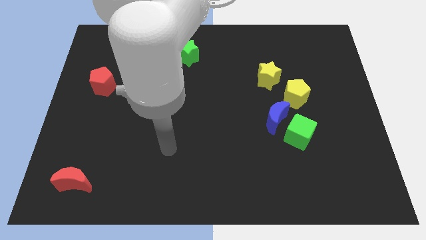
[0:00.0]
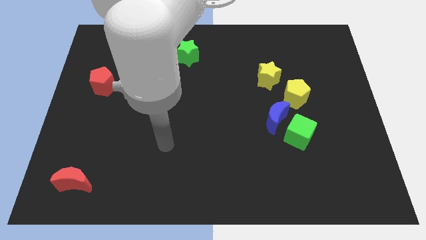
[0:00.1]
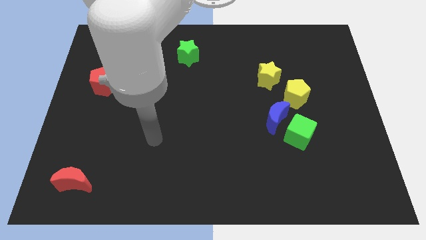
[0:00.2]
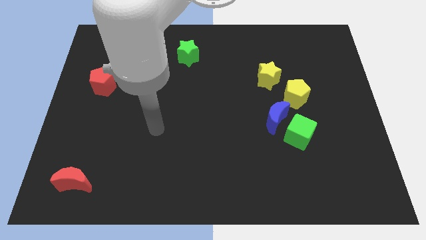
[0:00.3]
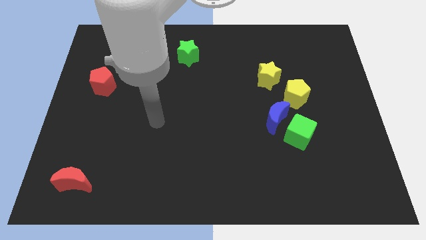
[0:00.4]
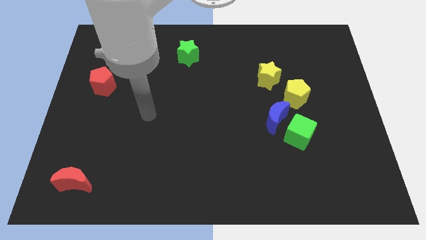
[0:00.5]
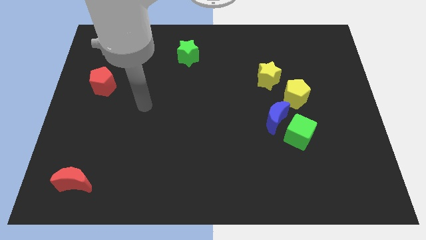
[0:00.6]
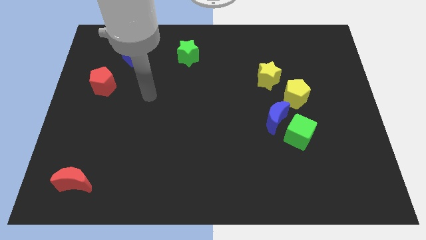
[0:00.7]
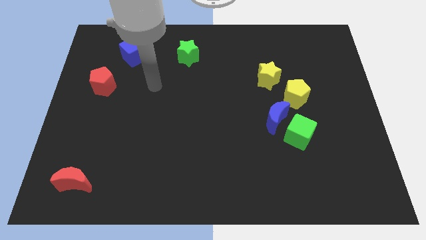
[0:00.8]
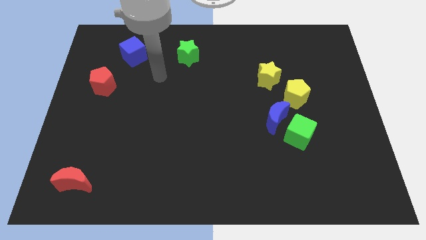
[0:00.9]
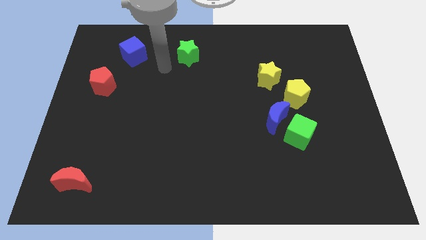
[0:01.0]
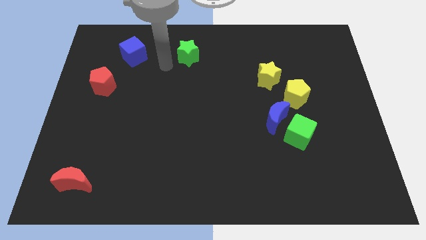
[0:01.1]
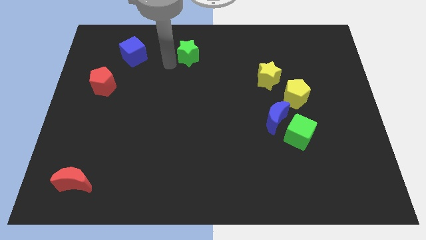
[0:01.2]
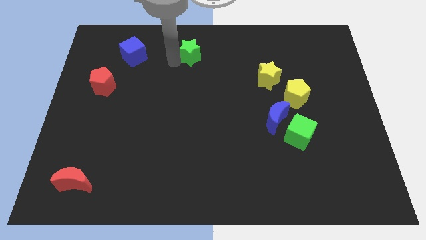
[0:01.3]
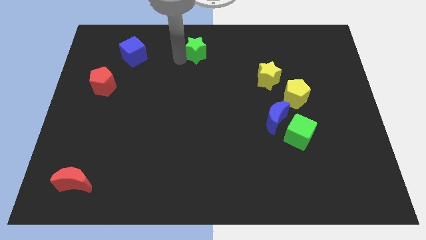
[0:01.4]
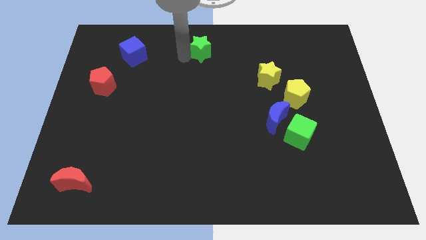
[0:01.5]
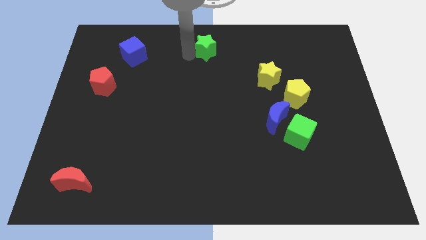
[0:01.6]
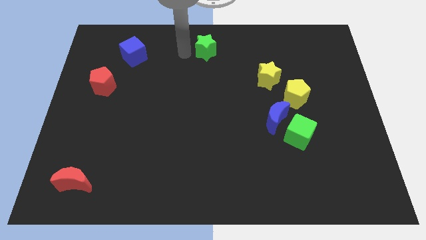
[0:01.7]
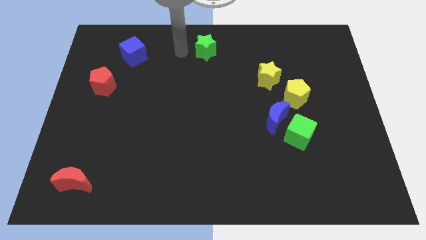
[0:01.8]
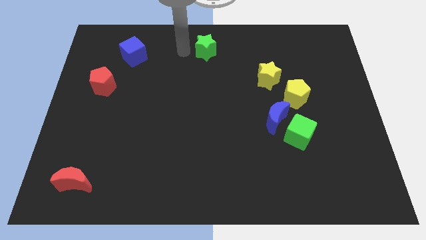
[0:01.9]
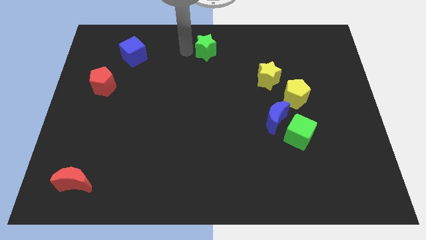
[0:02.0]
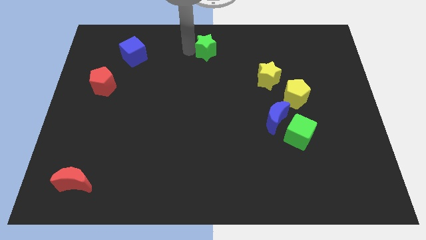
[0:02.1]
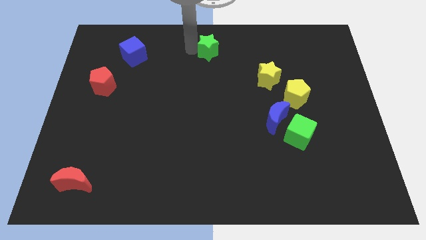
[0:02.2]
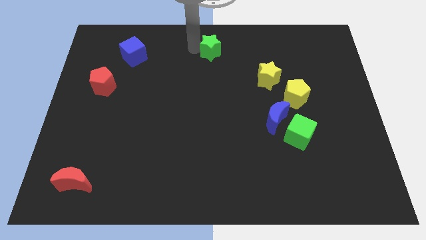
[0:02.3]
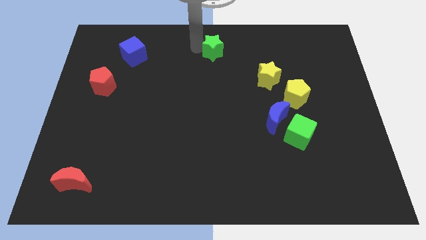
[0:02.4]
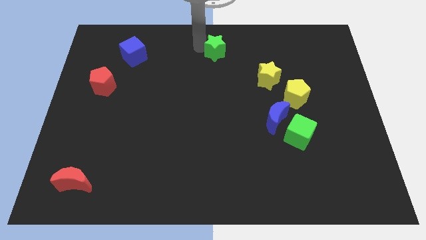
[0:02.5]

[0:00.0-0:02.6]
slightly push the green star right

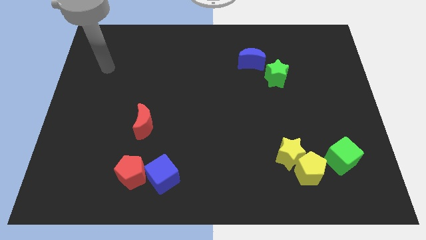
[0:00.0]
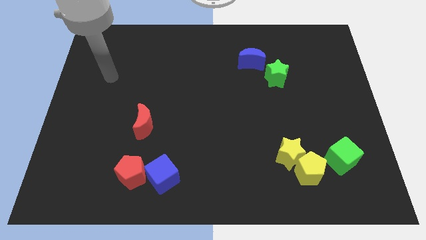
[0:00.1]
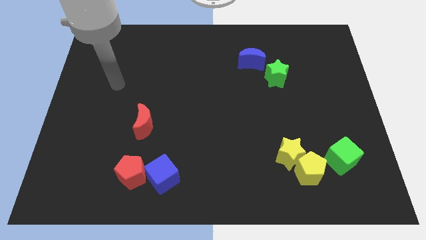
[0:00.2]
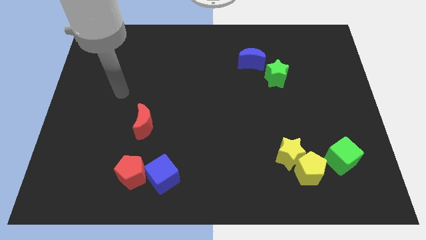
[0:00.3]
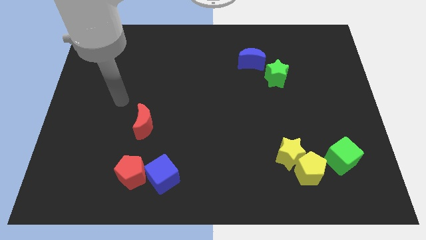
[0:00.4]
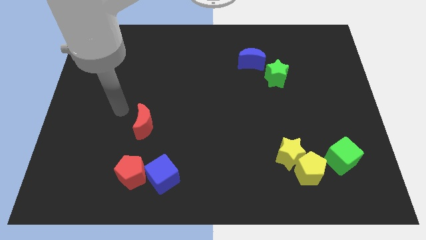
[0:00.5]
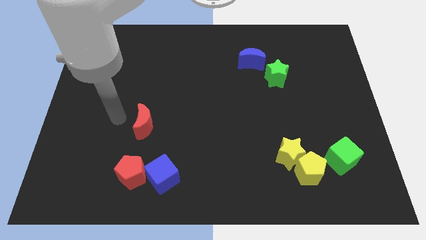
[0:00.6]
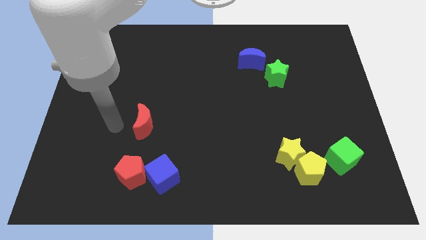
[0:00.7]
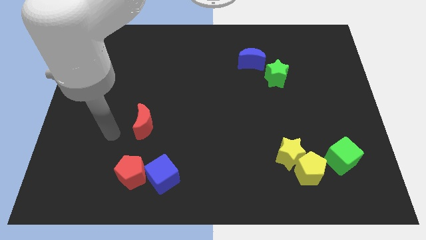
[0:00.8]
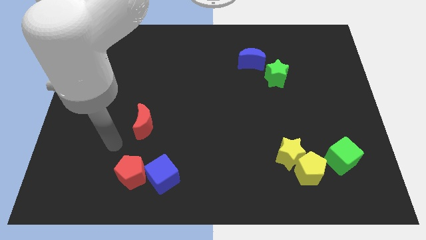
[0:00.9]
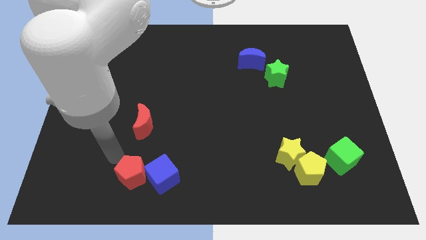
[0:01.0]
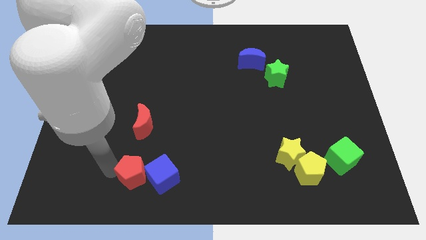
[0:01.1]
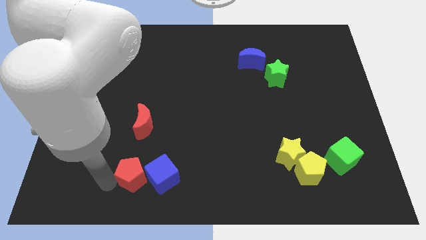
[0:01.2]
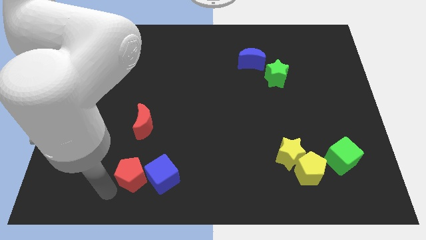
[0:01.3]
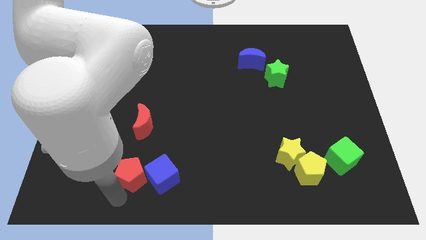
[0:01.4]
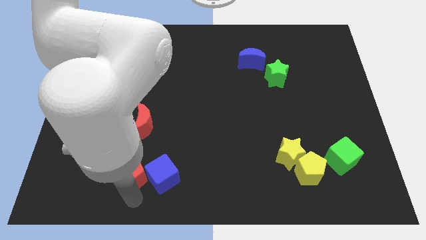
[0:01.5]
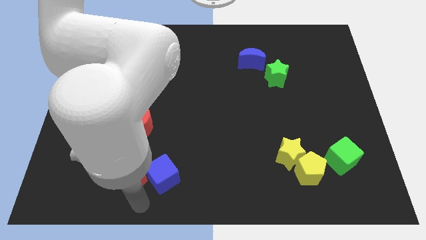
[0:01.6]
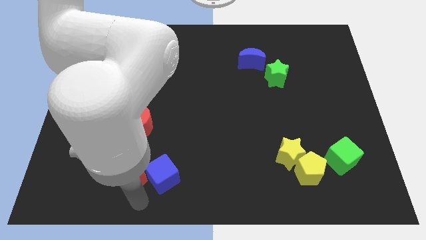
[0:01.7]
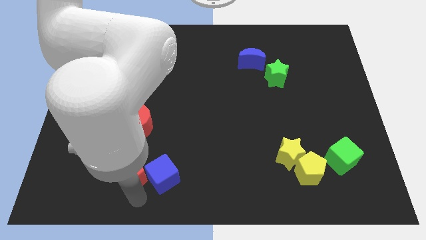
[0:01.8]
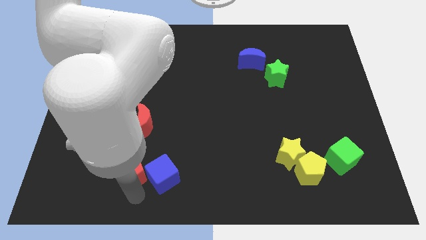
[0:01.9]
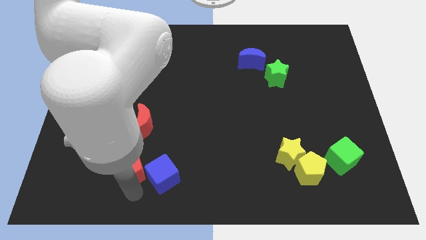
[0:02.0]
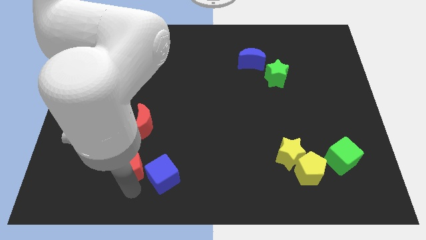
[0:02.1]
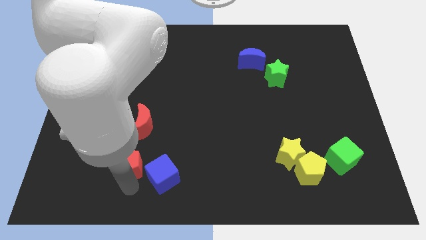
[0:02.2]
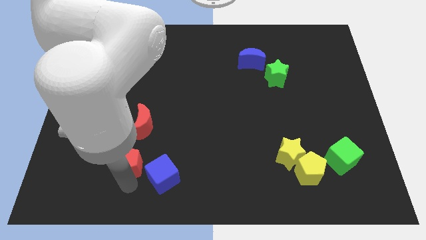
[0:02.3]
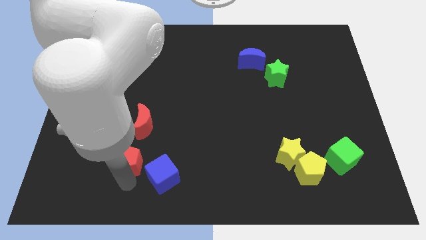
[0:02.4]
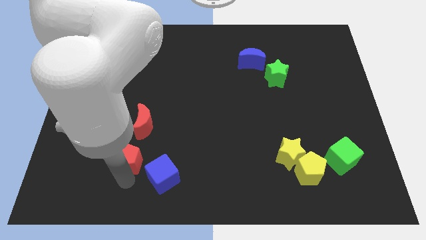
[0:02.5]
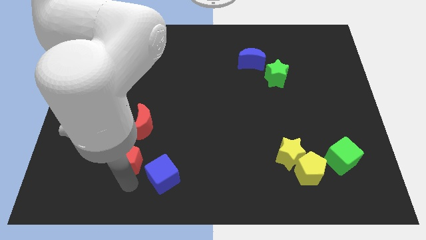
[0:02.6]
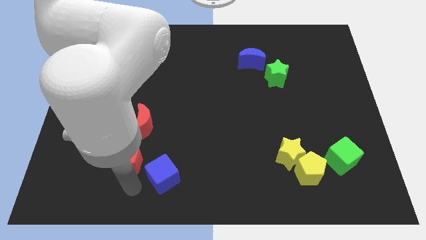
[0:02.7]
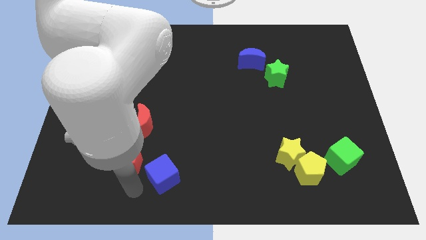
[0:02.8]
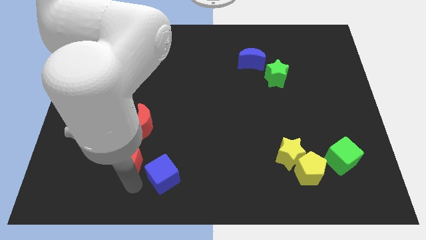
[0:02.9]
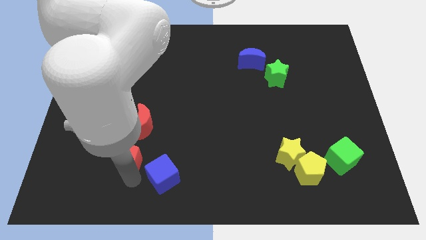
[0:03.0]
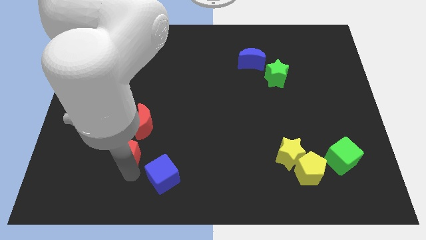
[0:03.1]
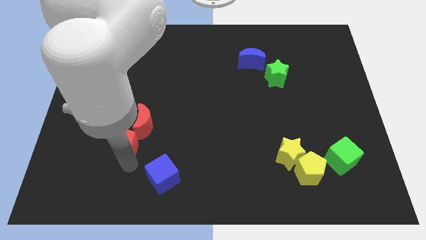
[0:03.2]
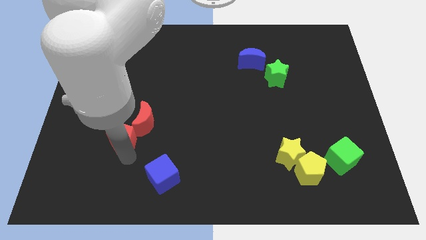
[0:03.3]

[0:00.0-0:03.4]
move the red pentagon a bit up

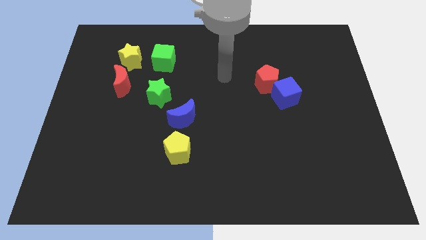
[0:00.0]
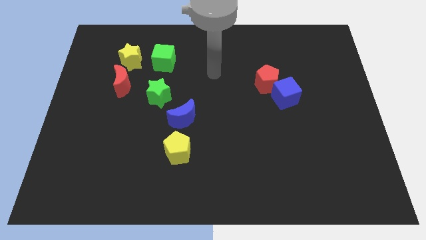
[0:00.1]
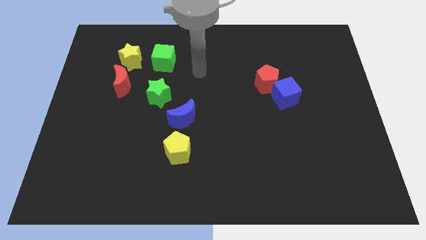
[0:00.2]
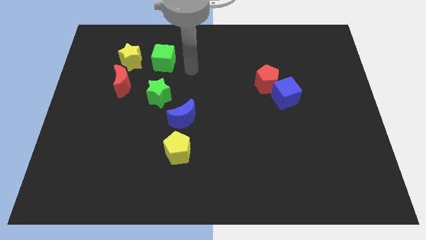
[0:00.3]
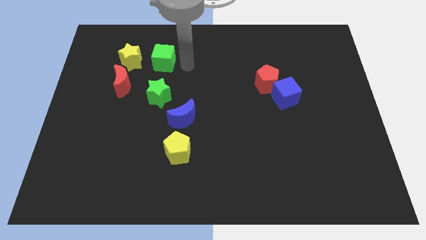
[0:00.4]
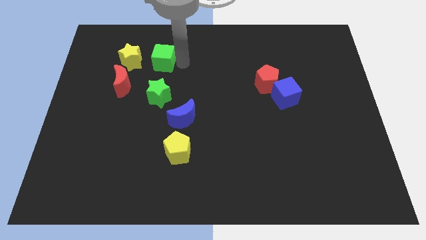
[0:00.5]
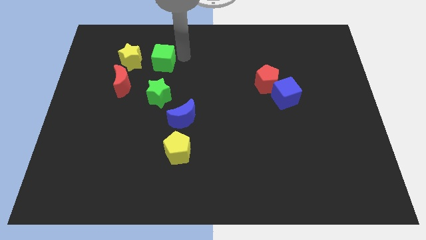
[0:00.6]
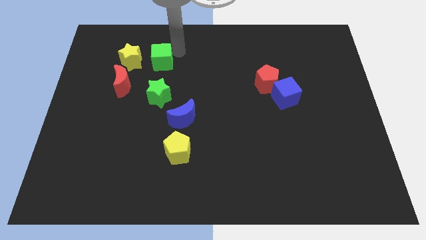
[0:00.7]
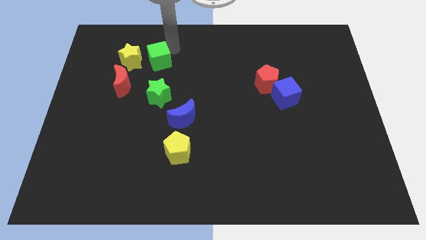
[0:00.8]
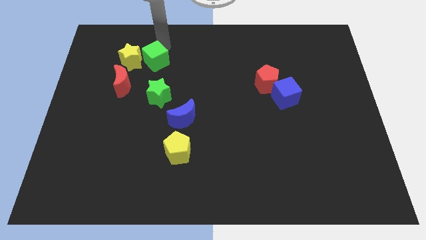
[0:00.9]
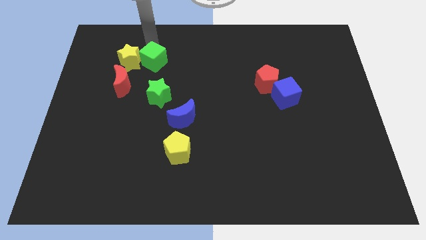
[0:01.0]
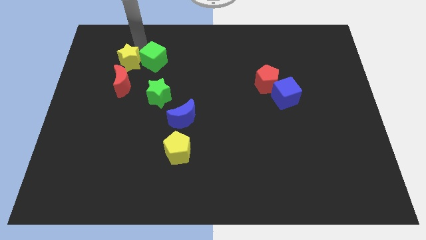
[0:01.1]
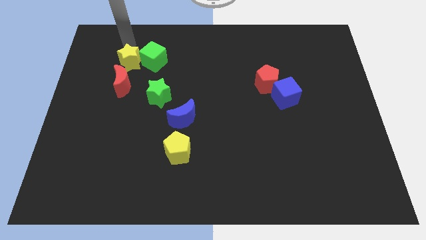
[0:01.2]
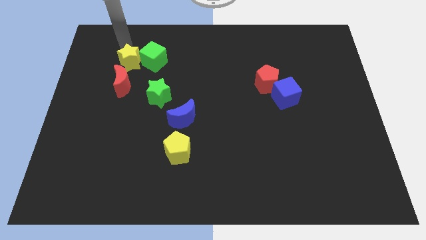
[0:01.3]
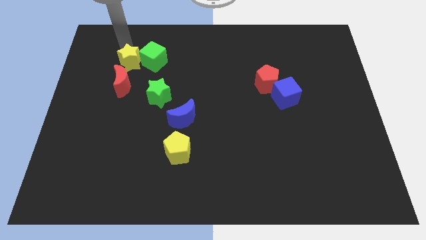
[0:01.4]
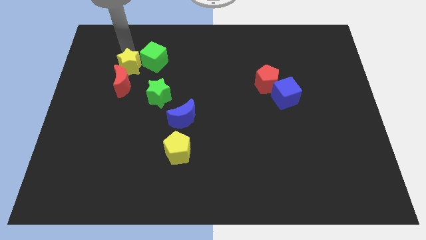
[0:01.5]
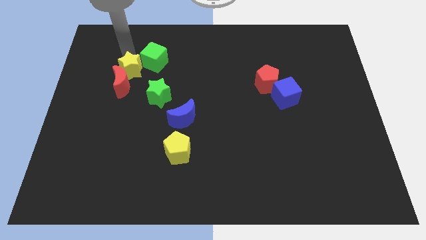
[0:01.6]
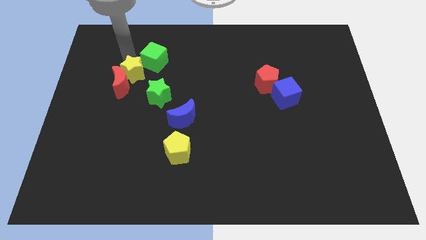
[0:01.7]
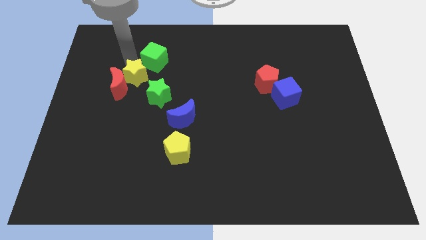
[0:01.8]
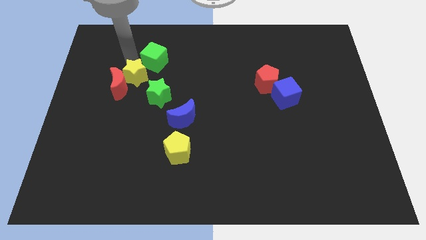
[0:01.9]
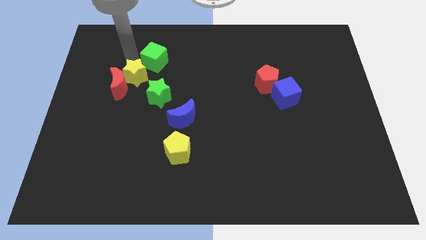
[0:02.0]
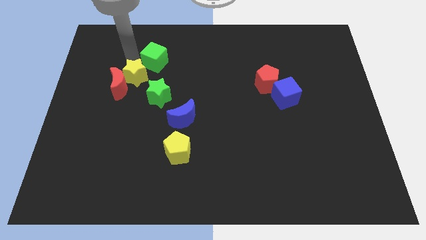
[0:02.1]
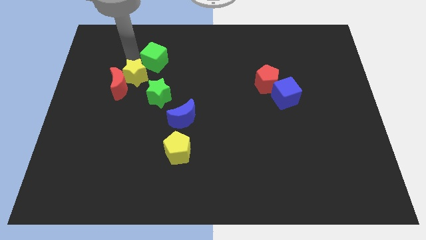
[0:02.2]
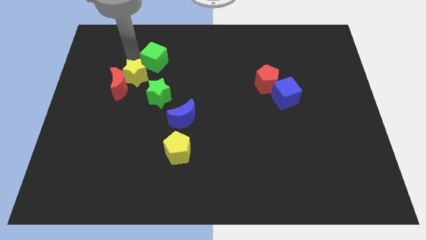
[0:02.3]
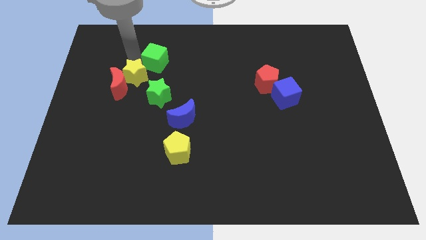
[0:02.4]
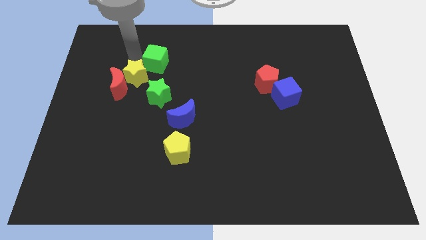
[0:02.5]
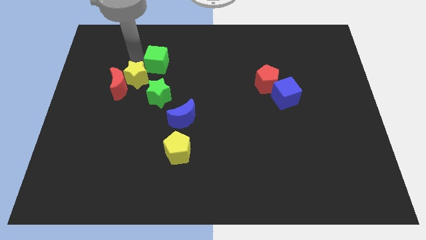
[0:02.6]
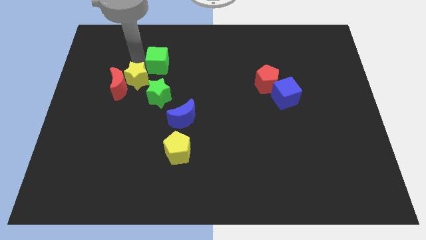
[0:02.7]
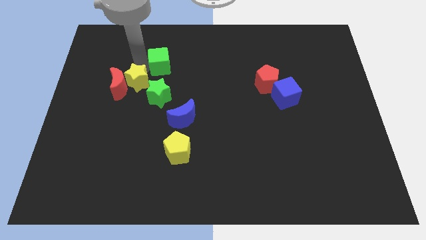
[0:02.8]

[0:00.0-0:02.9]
slide the yellow star a little bit downwards
